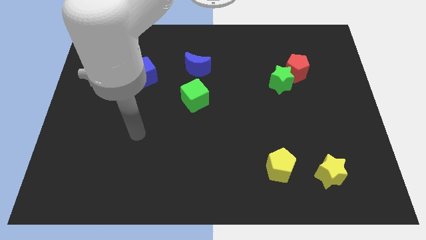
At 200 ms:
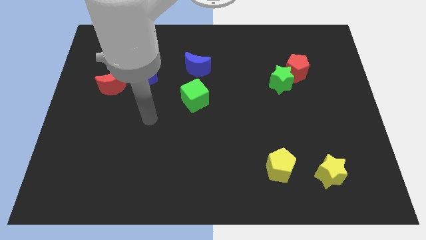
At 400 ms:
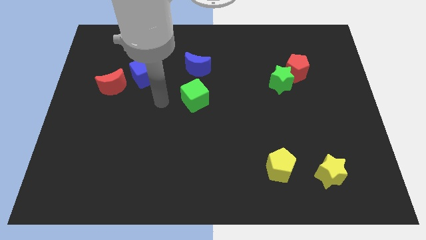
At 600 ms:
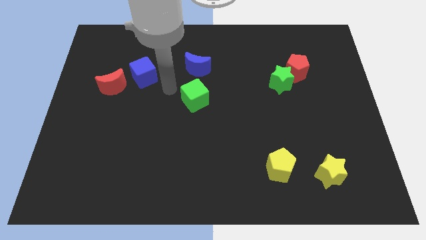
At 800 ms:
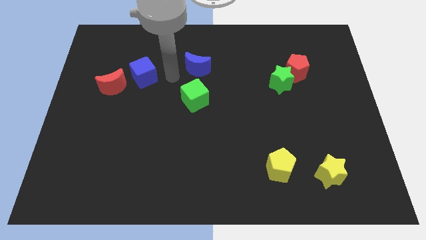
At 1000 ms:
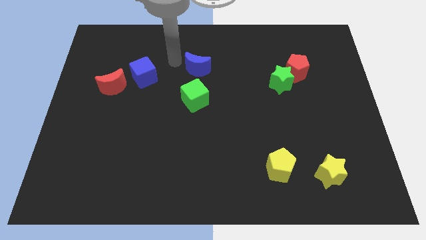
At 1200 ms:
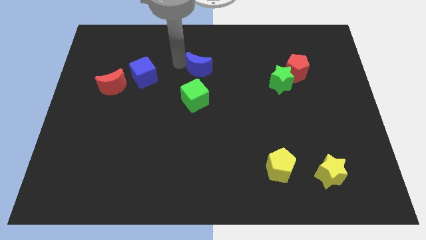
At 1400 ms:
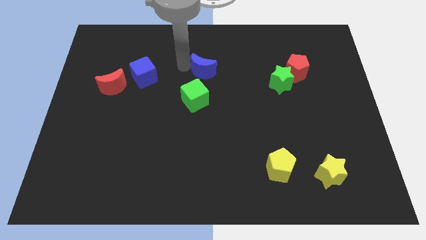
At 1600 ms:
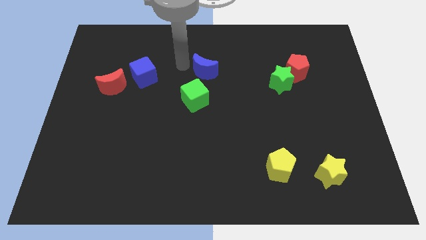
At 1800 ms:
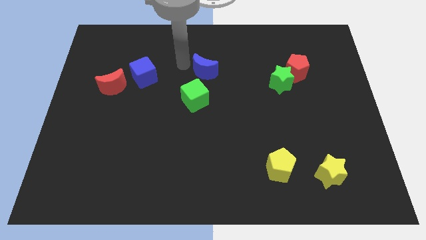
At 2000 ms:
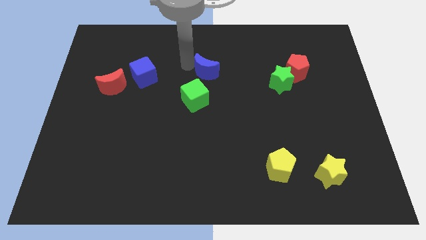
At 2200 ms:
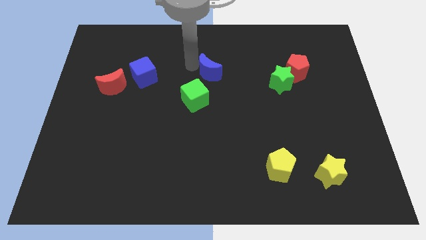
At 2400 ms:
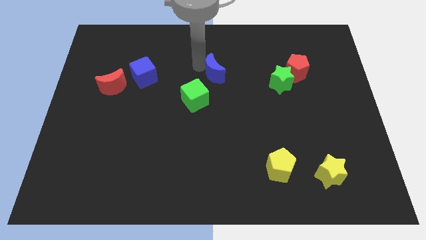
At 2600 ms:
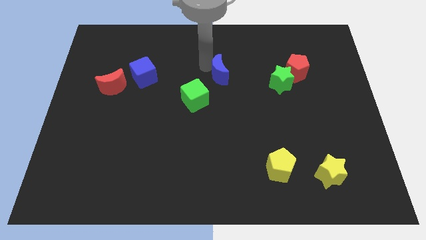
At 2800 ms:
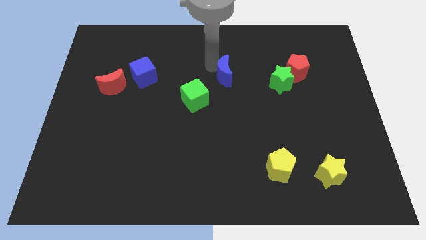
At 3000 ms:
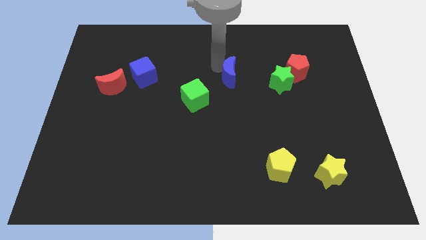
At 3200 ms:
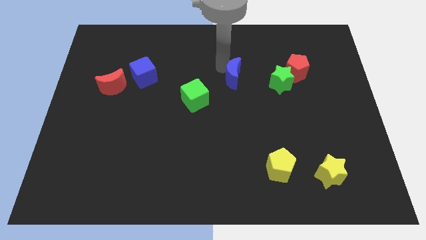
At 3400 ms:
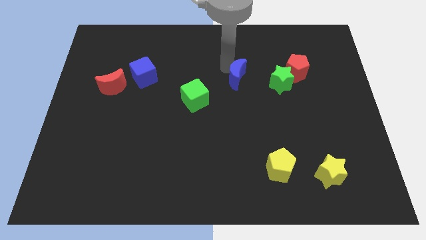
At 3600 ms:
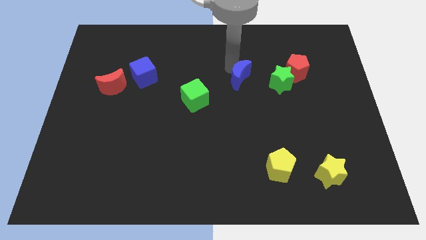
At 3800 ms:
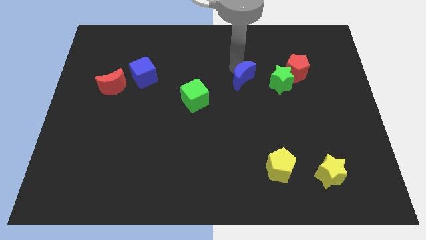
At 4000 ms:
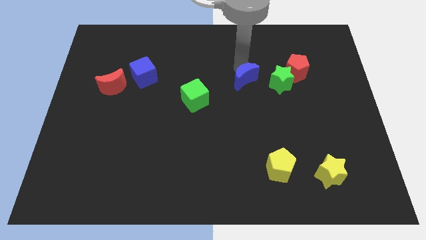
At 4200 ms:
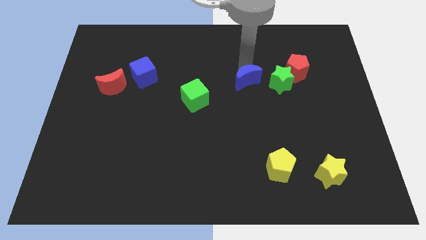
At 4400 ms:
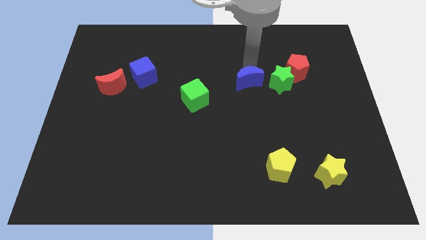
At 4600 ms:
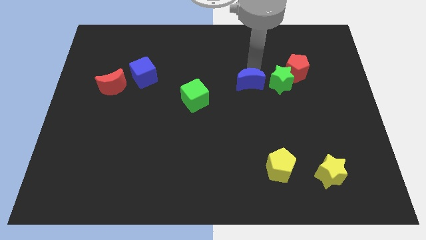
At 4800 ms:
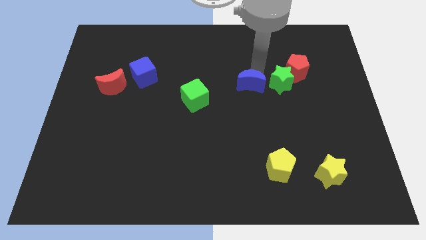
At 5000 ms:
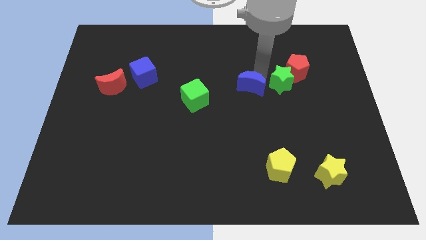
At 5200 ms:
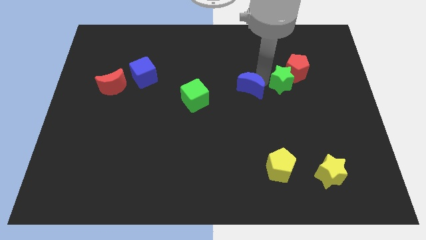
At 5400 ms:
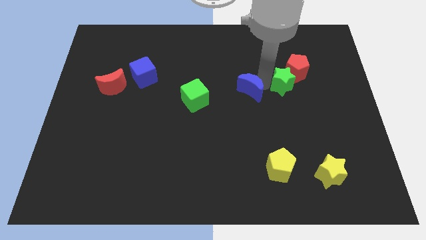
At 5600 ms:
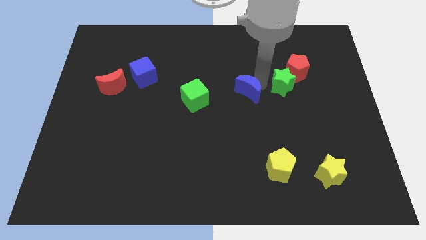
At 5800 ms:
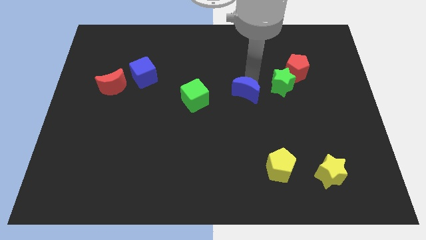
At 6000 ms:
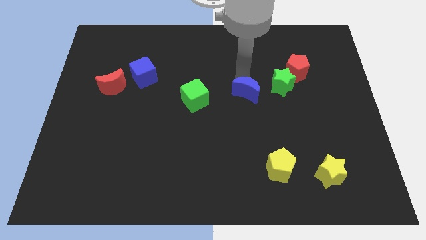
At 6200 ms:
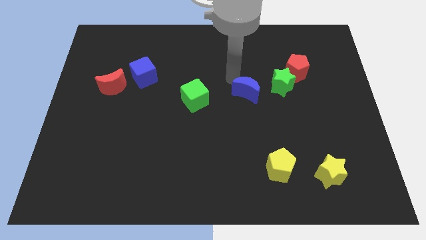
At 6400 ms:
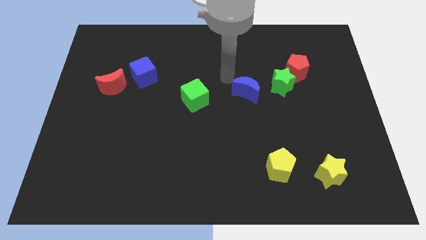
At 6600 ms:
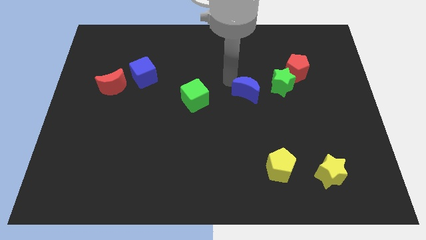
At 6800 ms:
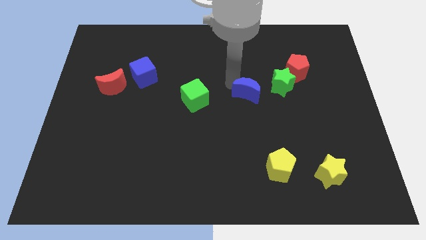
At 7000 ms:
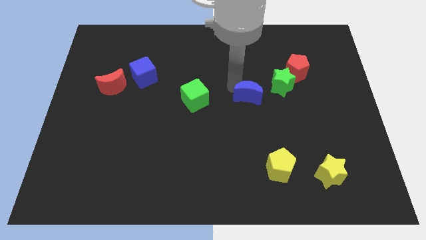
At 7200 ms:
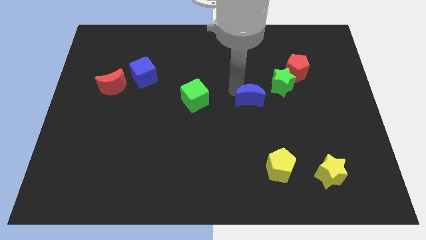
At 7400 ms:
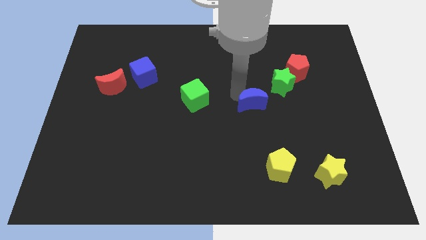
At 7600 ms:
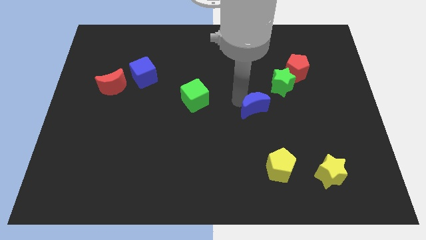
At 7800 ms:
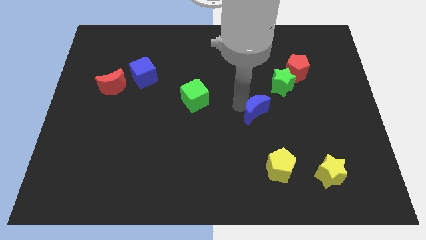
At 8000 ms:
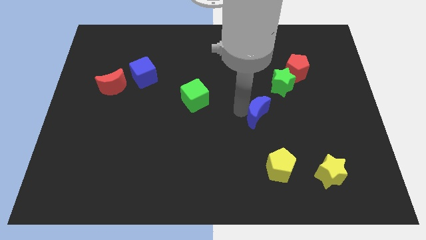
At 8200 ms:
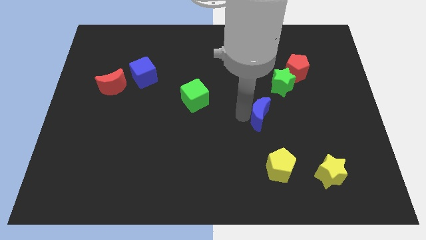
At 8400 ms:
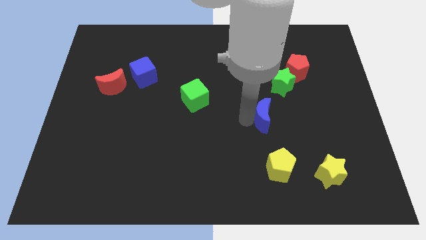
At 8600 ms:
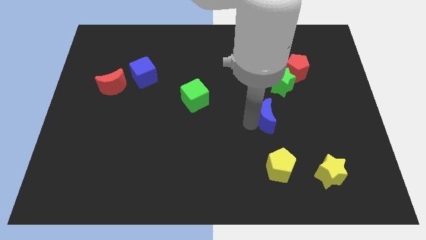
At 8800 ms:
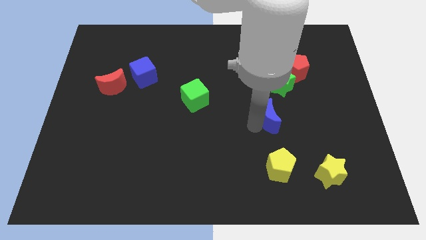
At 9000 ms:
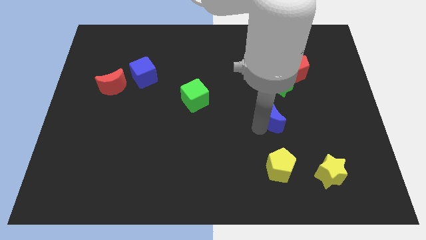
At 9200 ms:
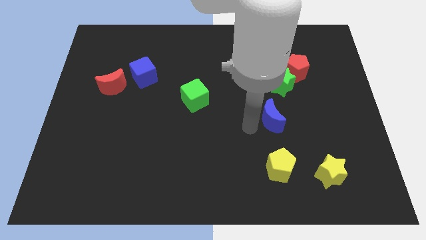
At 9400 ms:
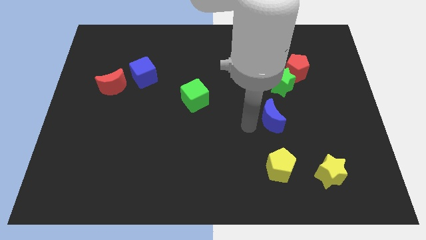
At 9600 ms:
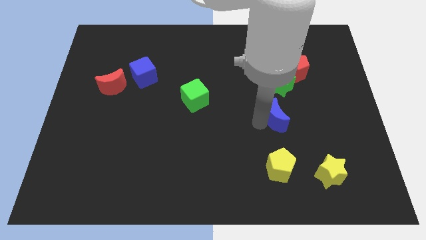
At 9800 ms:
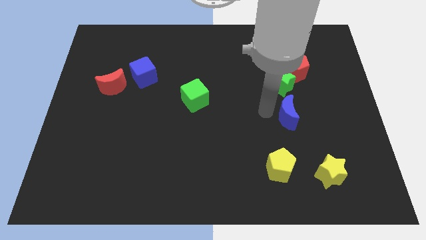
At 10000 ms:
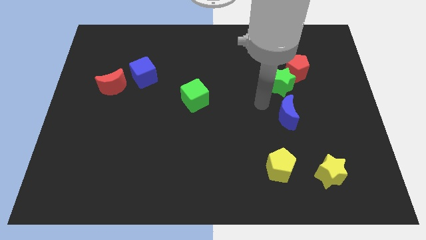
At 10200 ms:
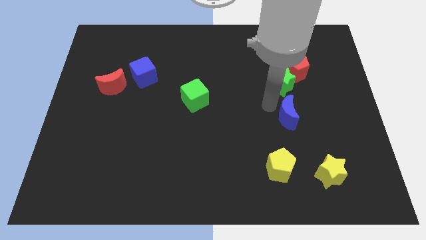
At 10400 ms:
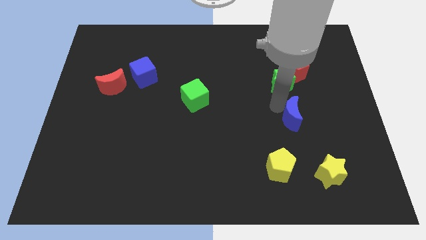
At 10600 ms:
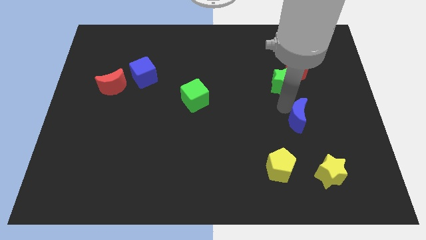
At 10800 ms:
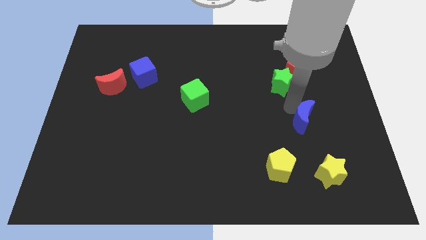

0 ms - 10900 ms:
put the blue moon above the yellow star

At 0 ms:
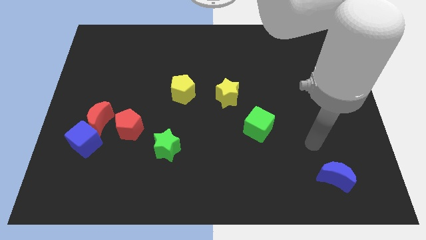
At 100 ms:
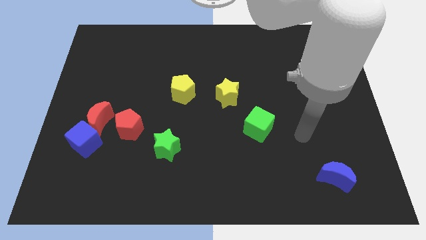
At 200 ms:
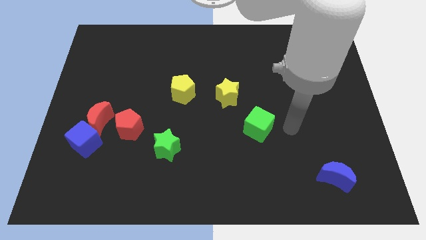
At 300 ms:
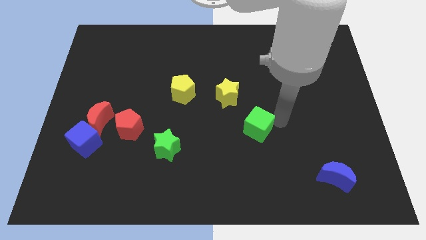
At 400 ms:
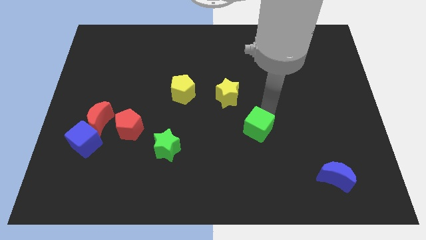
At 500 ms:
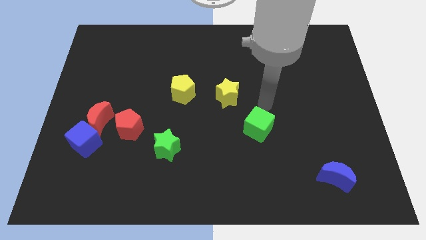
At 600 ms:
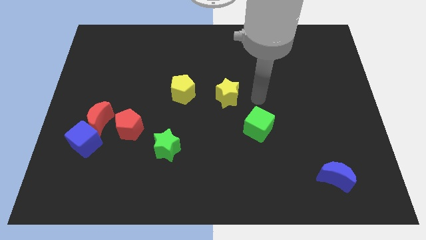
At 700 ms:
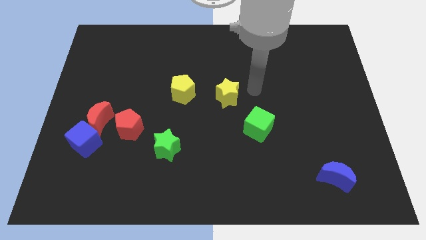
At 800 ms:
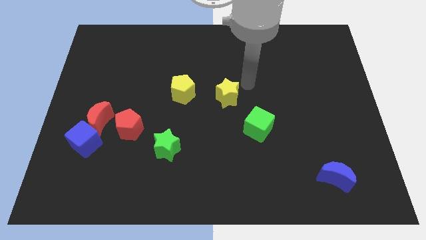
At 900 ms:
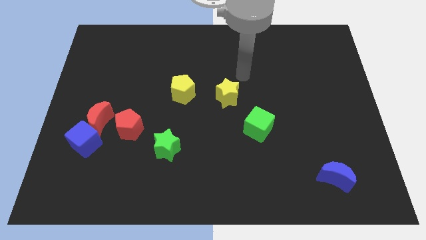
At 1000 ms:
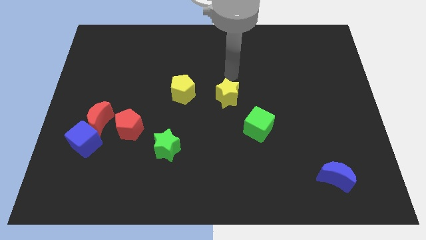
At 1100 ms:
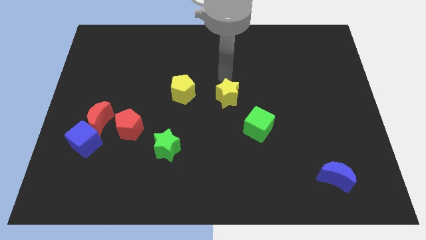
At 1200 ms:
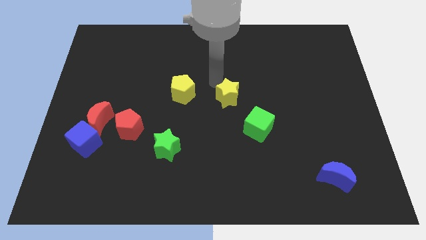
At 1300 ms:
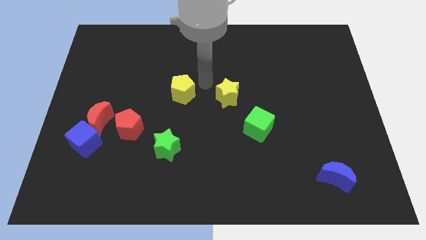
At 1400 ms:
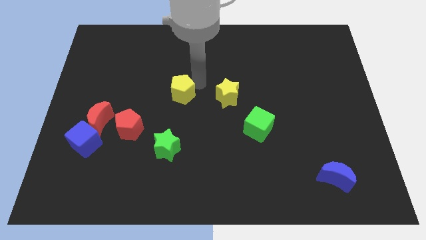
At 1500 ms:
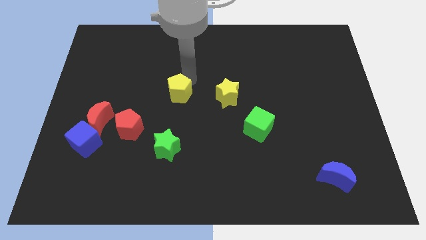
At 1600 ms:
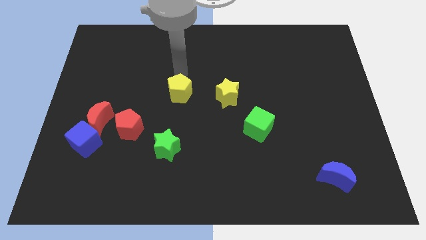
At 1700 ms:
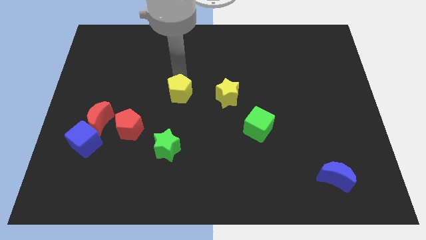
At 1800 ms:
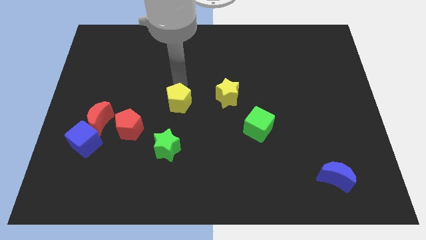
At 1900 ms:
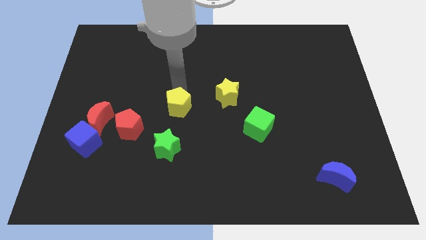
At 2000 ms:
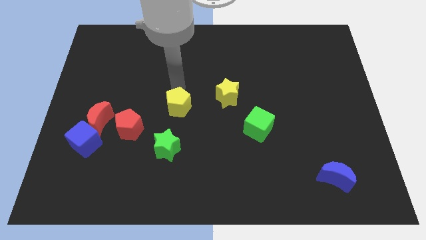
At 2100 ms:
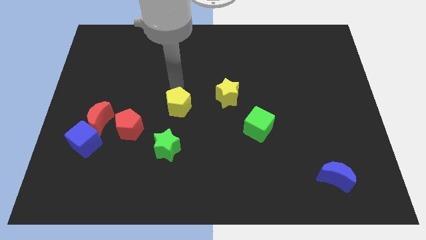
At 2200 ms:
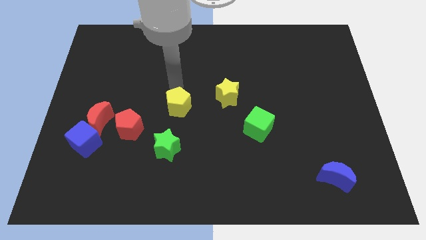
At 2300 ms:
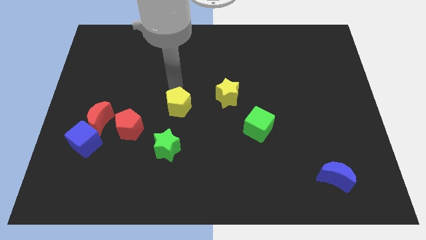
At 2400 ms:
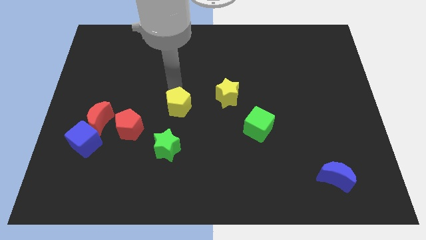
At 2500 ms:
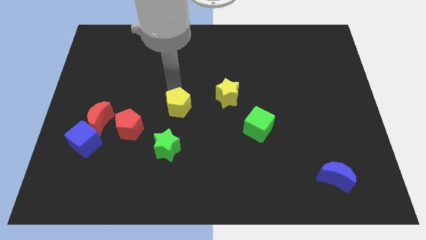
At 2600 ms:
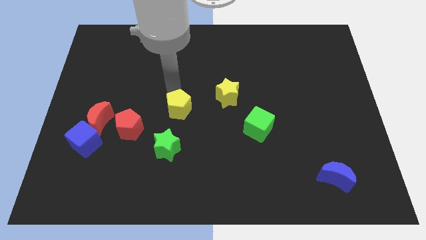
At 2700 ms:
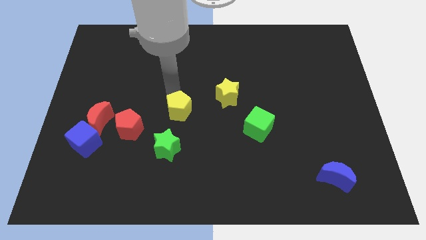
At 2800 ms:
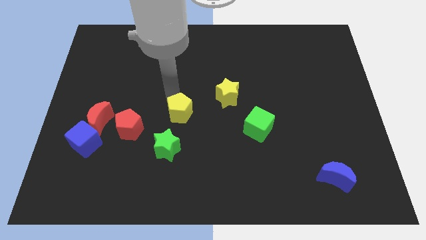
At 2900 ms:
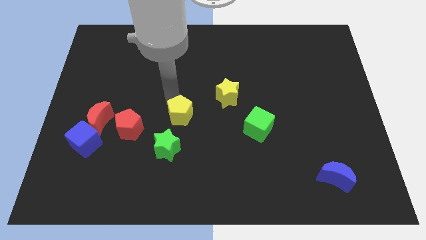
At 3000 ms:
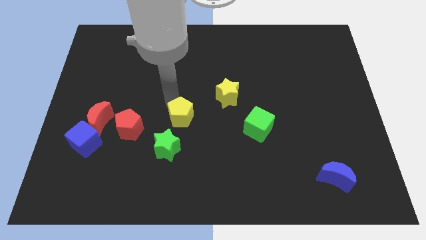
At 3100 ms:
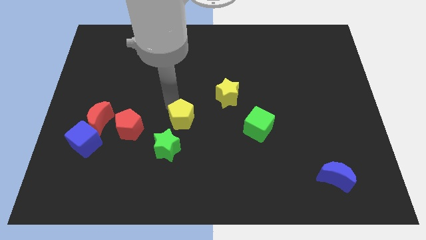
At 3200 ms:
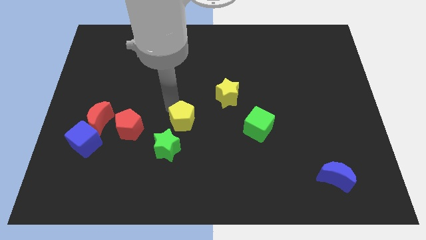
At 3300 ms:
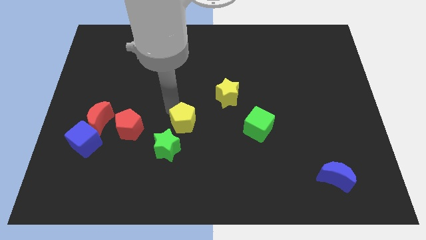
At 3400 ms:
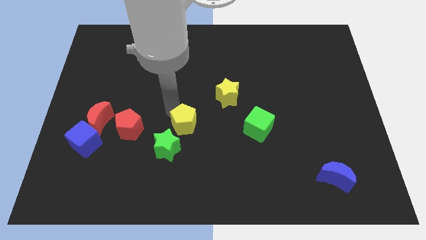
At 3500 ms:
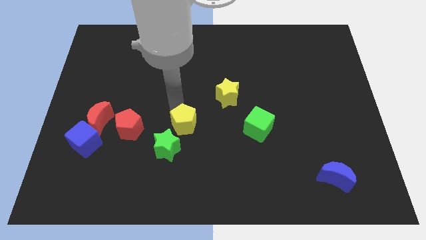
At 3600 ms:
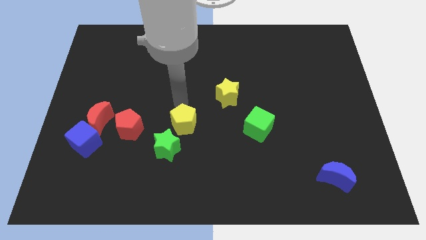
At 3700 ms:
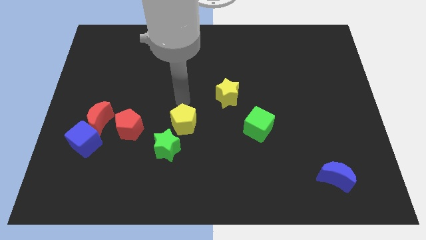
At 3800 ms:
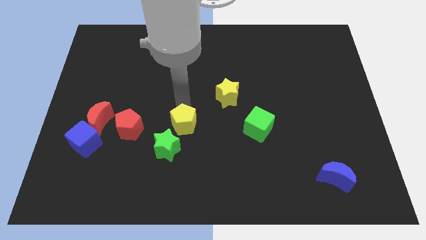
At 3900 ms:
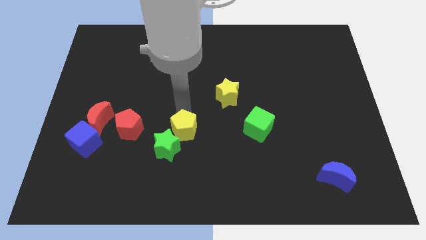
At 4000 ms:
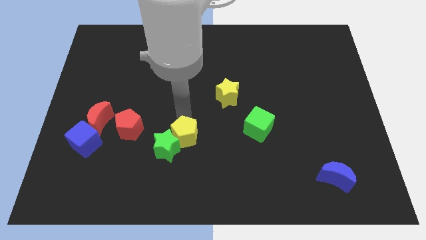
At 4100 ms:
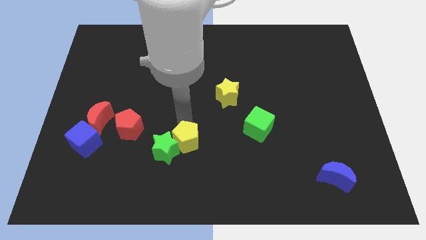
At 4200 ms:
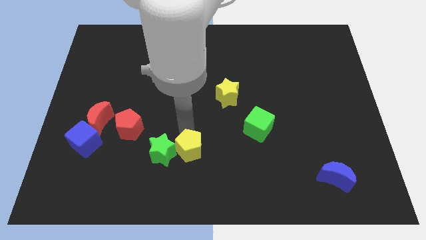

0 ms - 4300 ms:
slide the yellow pentagon to the bottom right of the green star
